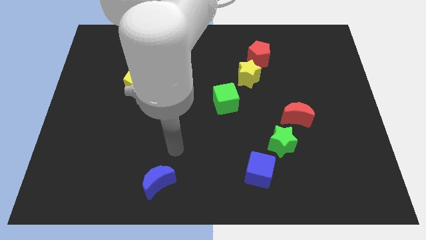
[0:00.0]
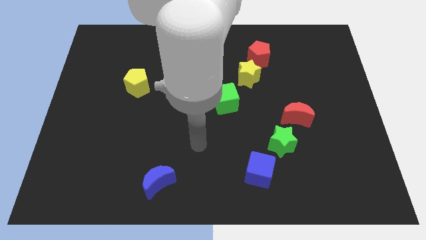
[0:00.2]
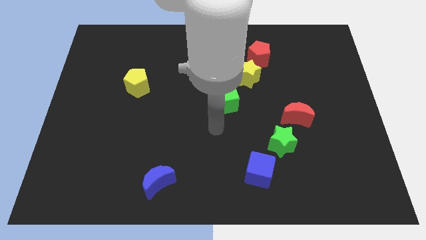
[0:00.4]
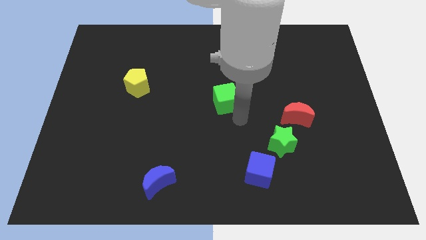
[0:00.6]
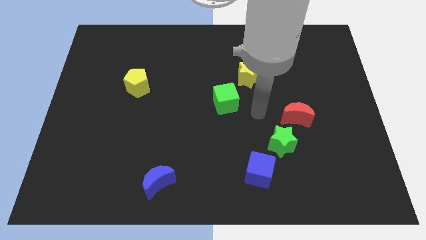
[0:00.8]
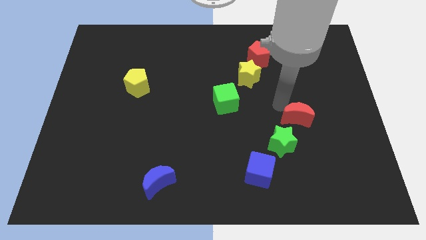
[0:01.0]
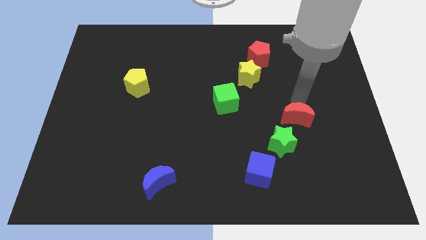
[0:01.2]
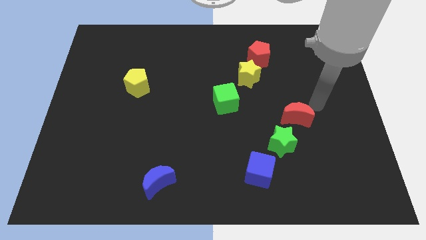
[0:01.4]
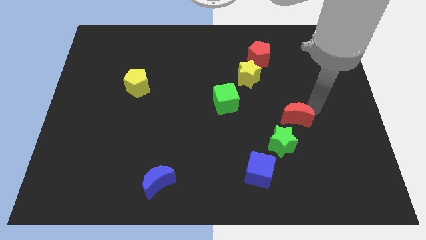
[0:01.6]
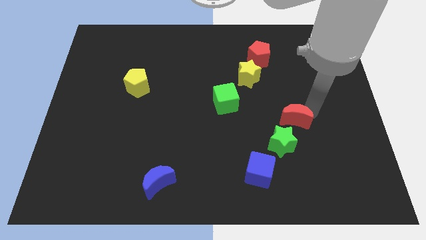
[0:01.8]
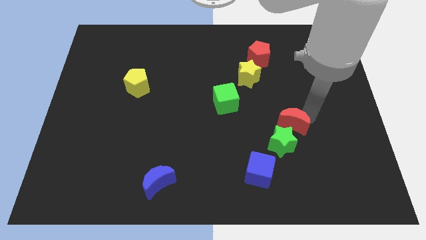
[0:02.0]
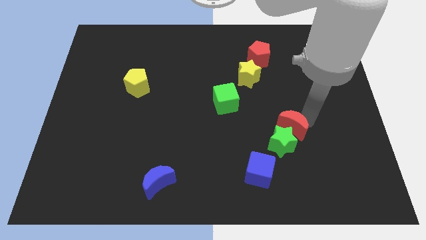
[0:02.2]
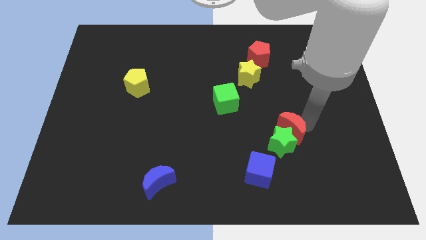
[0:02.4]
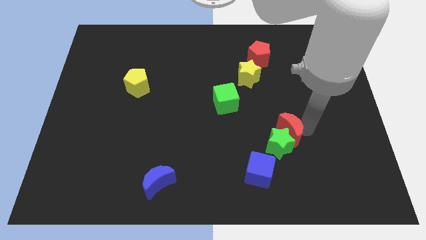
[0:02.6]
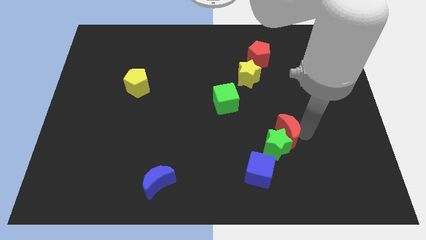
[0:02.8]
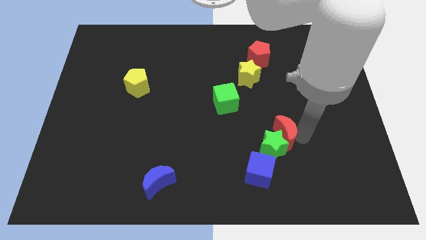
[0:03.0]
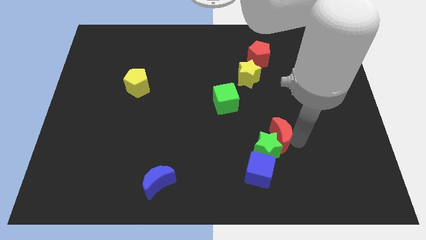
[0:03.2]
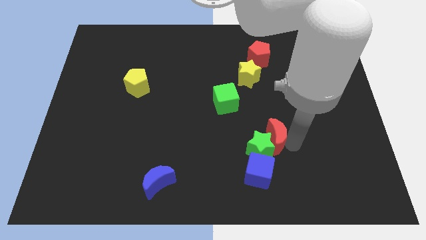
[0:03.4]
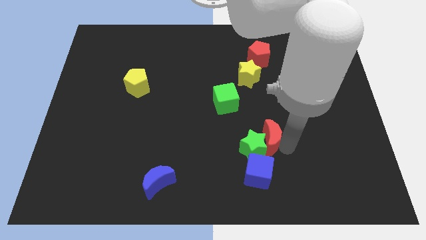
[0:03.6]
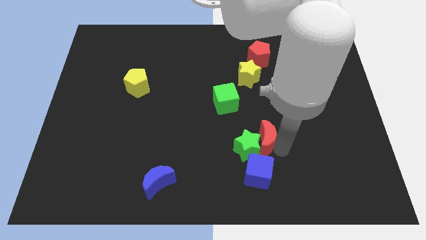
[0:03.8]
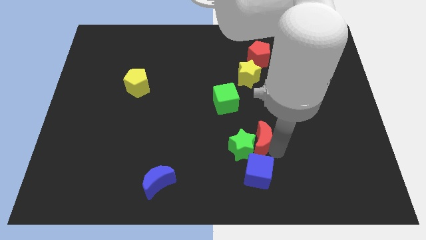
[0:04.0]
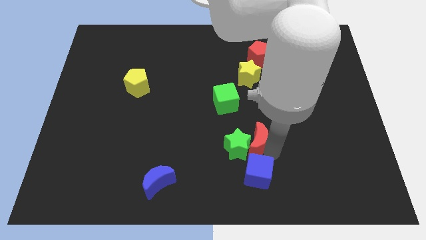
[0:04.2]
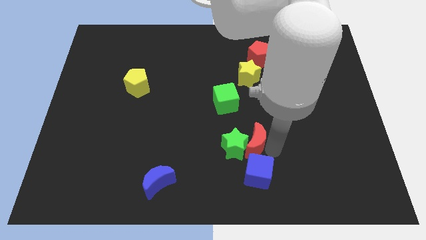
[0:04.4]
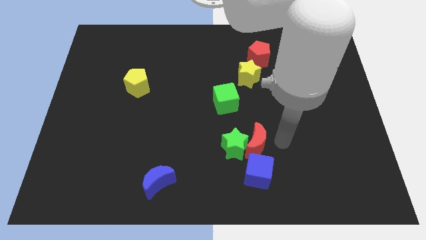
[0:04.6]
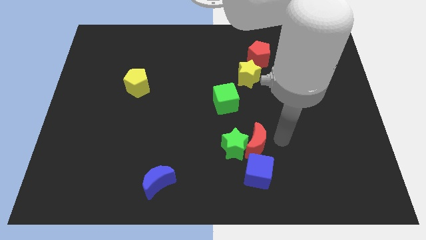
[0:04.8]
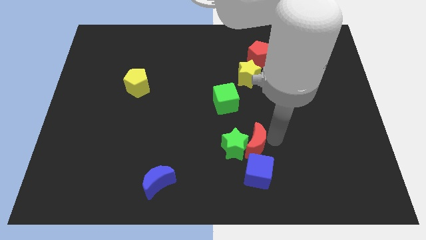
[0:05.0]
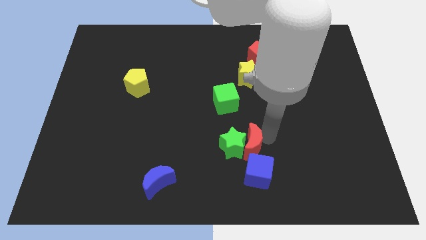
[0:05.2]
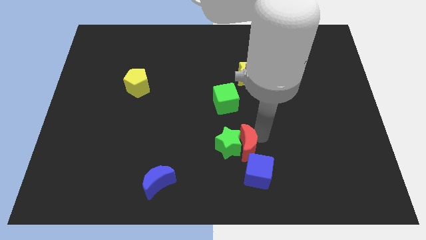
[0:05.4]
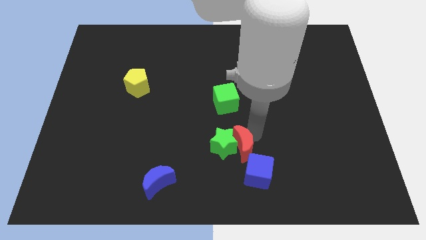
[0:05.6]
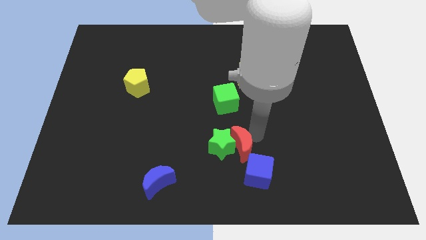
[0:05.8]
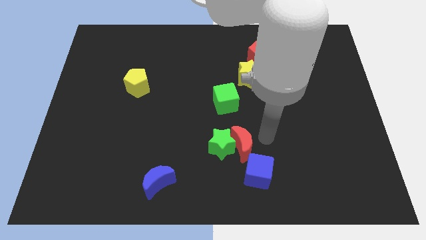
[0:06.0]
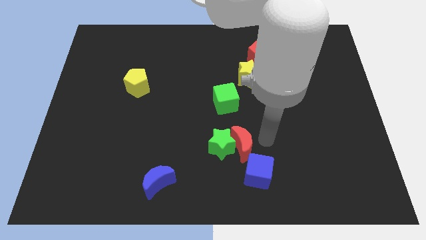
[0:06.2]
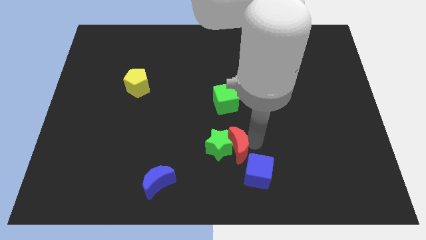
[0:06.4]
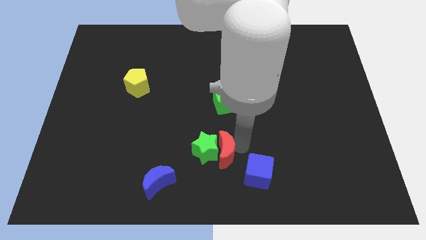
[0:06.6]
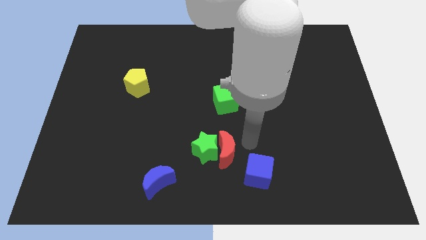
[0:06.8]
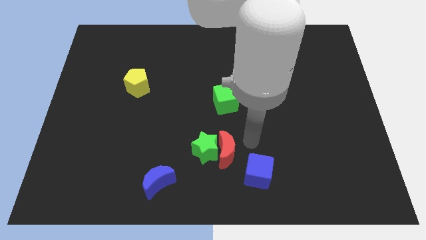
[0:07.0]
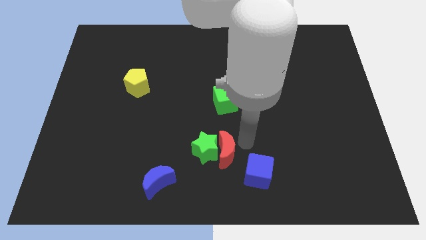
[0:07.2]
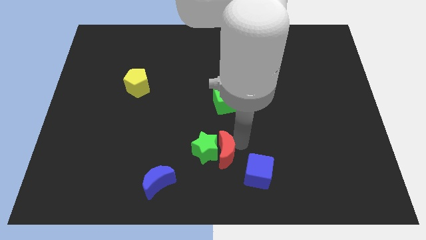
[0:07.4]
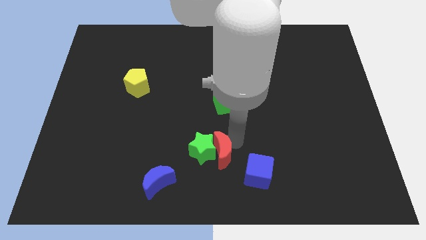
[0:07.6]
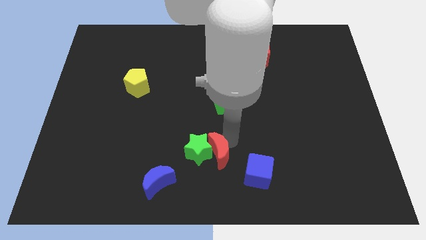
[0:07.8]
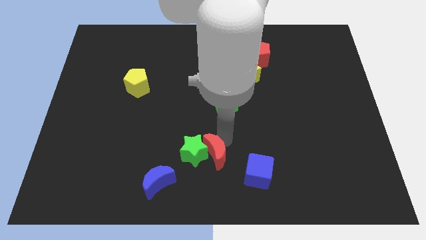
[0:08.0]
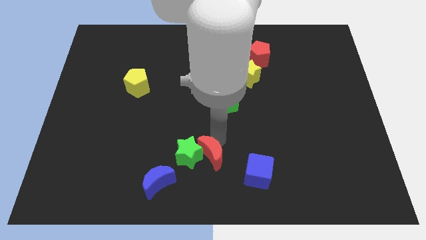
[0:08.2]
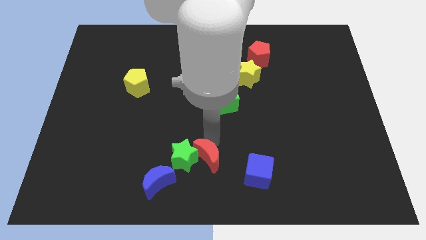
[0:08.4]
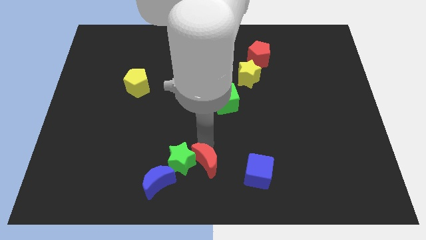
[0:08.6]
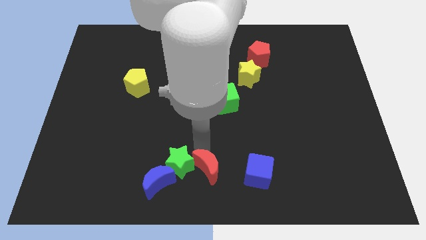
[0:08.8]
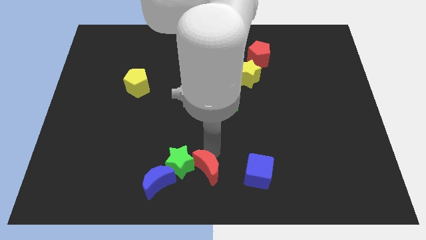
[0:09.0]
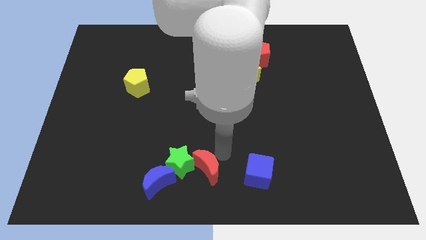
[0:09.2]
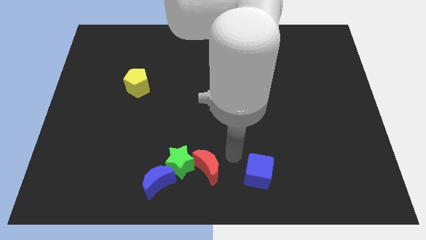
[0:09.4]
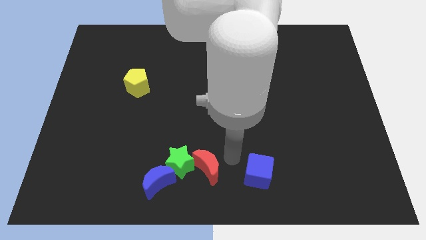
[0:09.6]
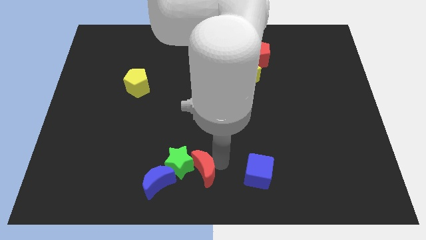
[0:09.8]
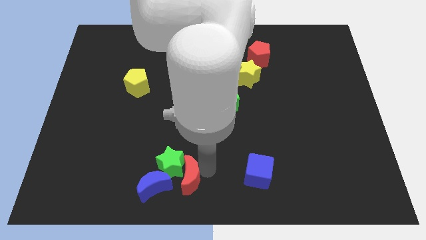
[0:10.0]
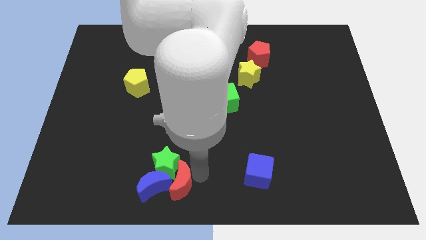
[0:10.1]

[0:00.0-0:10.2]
move the red moon to the blue moon

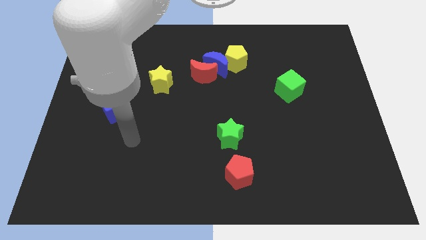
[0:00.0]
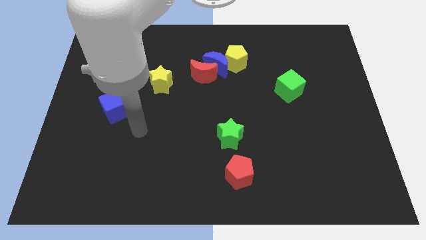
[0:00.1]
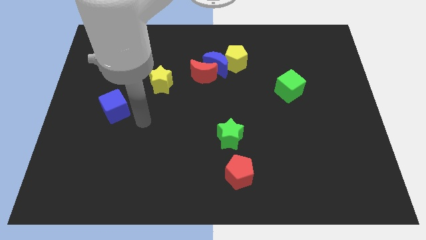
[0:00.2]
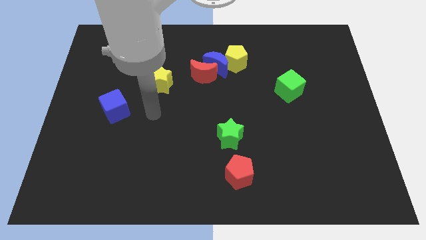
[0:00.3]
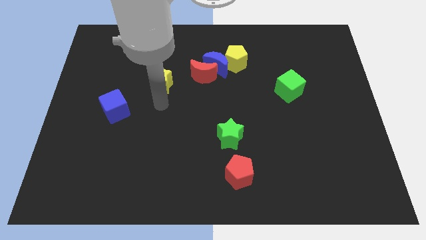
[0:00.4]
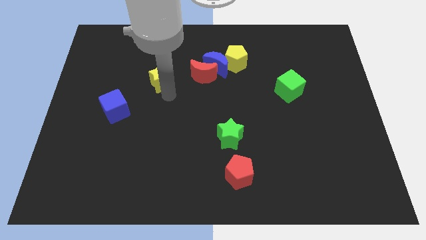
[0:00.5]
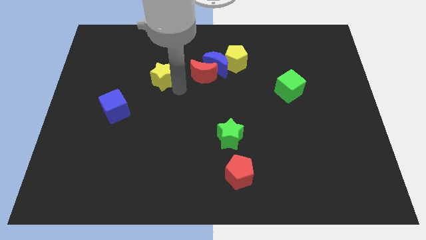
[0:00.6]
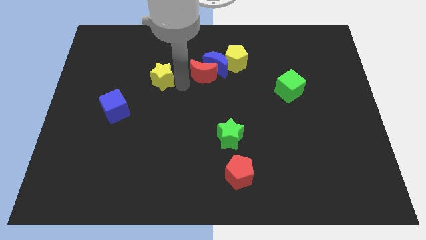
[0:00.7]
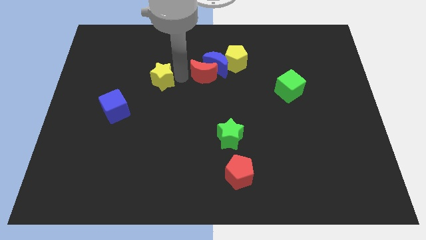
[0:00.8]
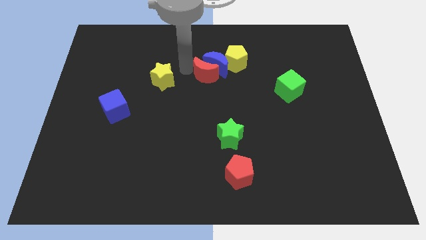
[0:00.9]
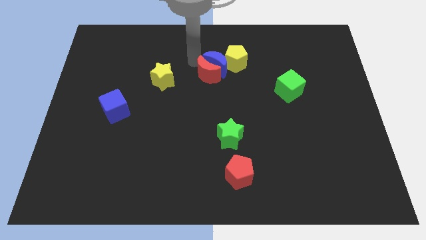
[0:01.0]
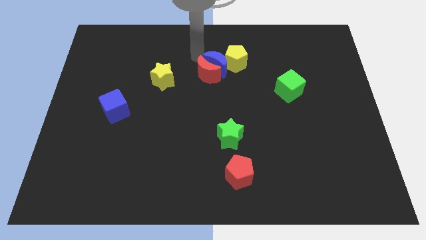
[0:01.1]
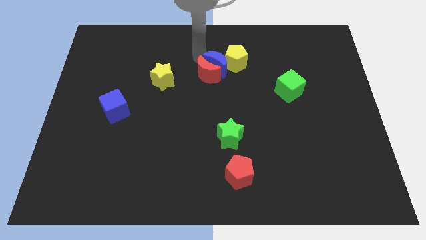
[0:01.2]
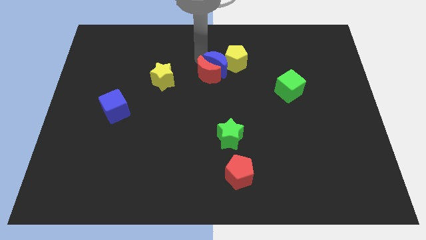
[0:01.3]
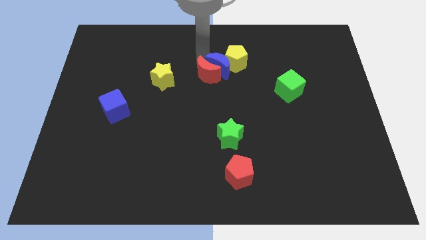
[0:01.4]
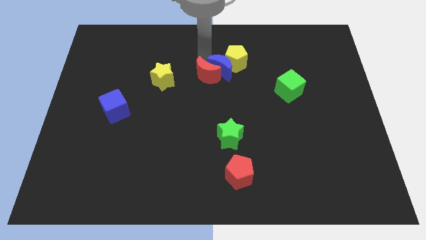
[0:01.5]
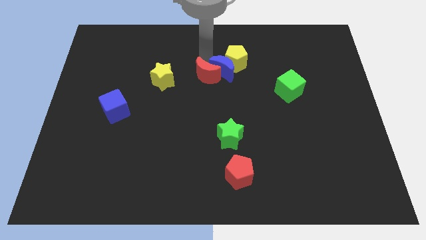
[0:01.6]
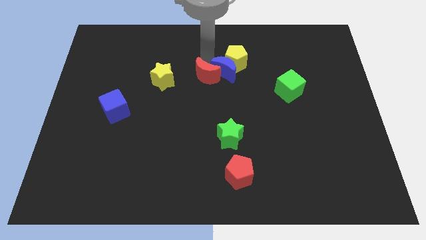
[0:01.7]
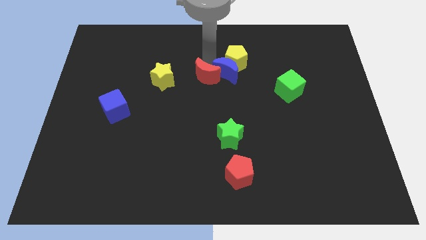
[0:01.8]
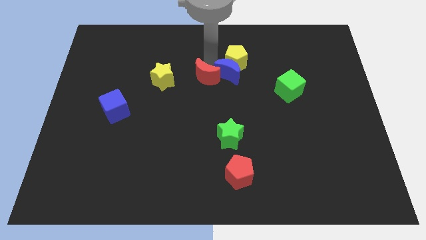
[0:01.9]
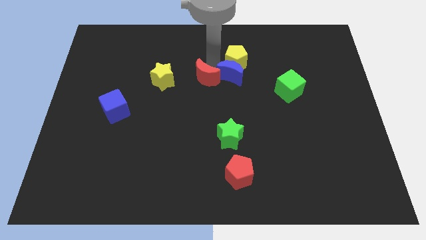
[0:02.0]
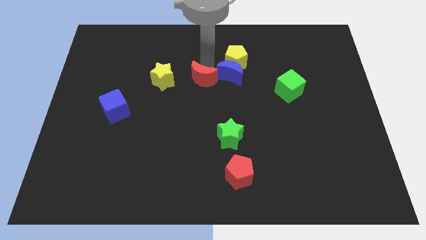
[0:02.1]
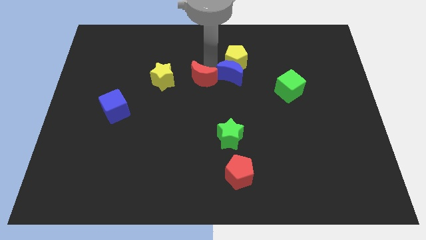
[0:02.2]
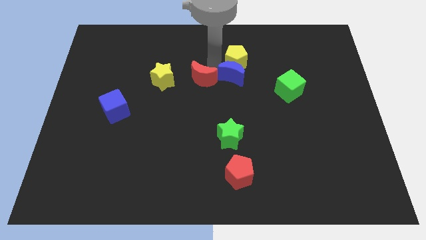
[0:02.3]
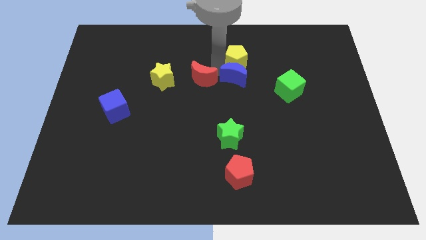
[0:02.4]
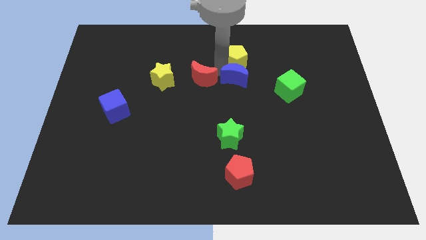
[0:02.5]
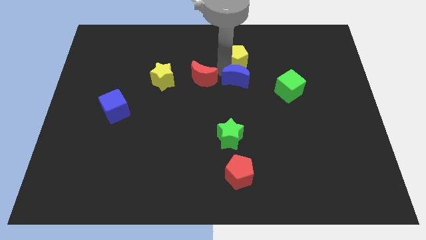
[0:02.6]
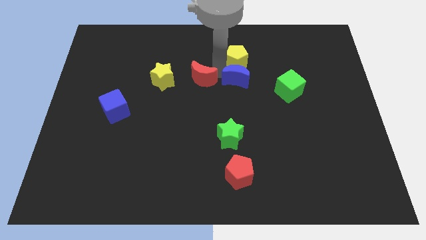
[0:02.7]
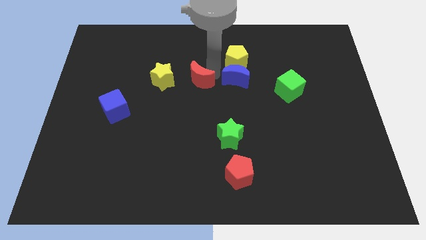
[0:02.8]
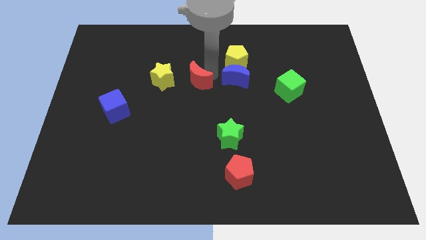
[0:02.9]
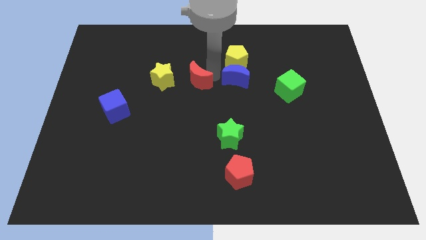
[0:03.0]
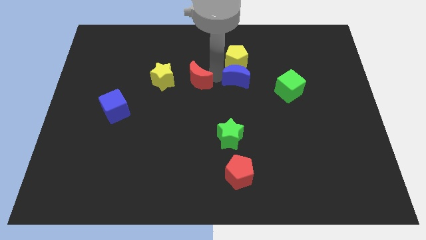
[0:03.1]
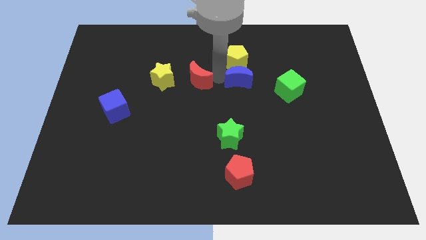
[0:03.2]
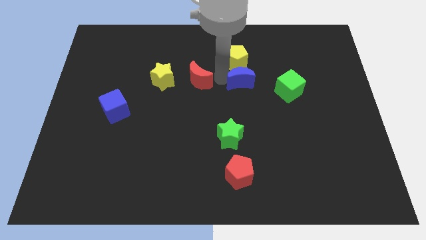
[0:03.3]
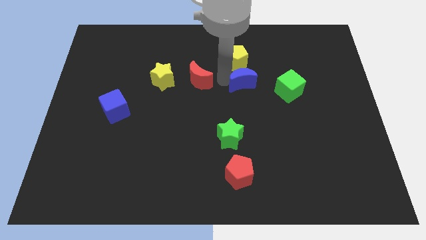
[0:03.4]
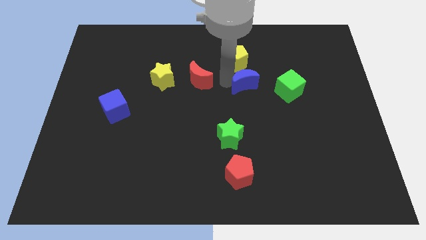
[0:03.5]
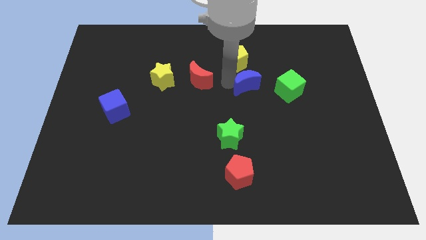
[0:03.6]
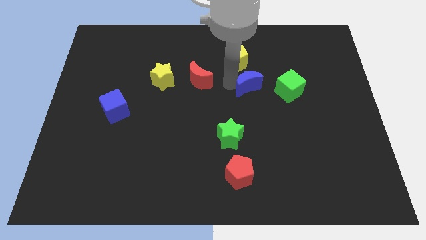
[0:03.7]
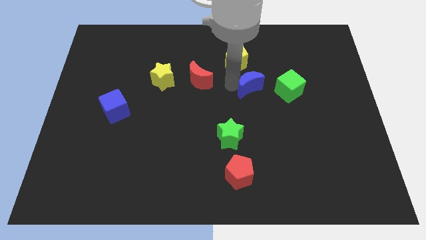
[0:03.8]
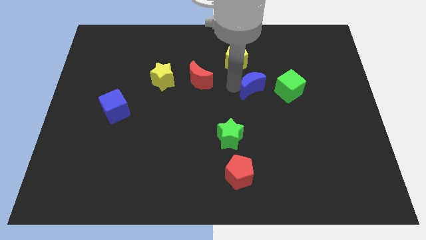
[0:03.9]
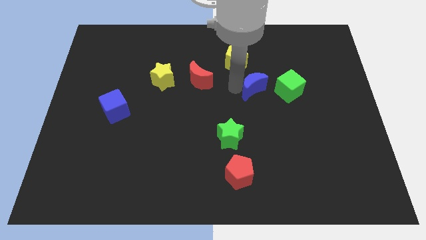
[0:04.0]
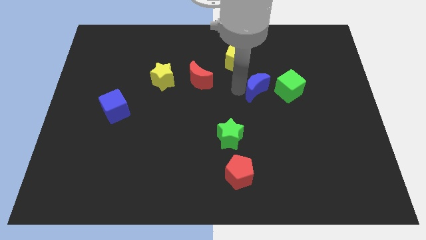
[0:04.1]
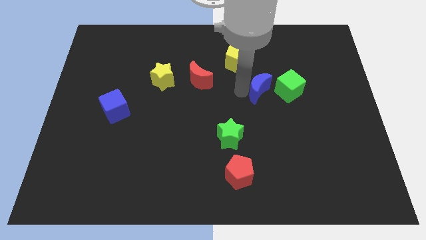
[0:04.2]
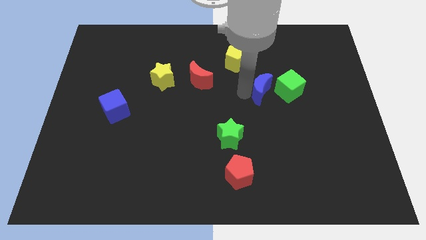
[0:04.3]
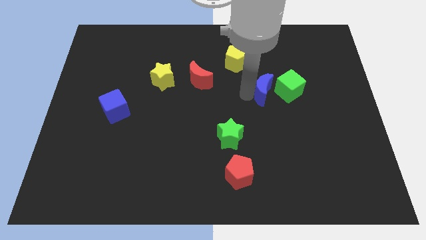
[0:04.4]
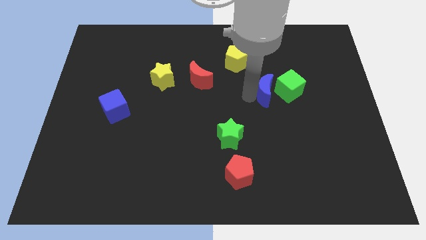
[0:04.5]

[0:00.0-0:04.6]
move the blue moon close to the green cube
